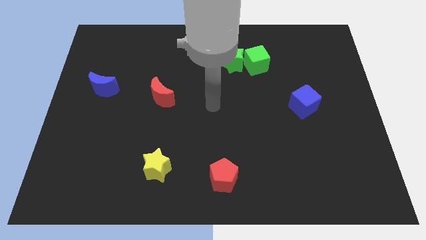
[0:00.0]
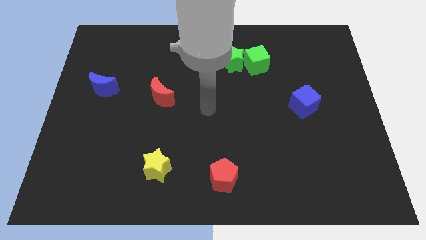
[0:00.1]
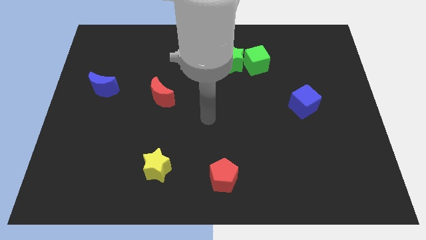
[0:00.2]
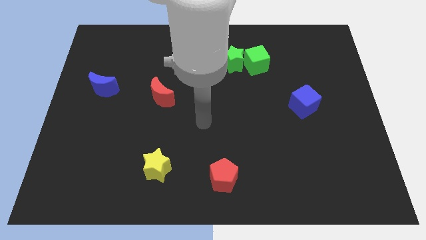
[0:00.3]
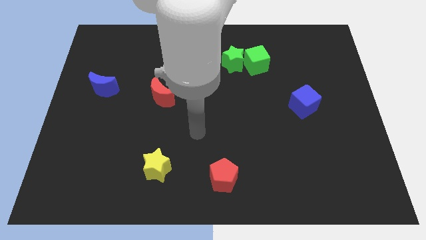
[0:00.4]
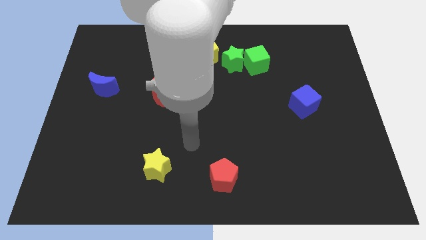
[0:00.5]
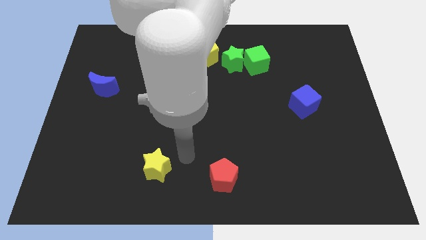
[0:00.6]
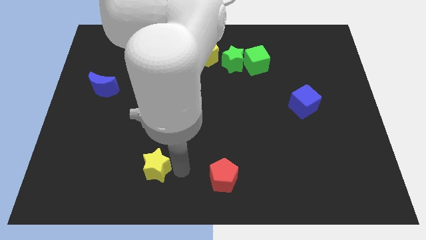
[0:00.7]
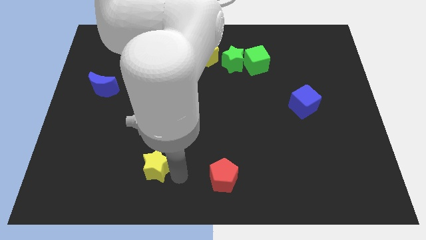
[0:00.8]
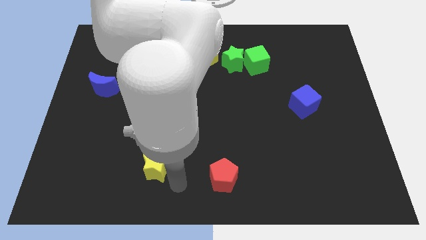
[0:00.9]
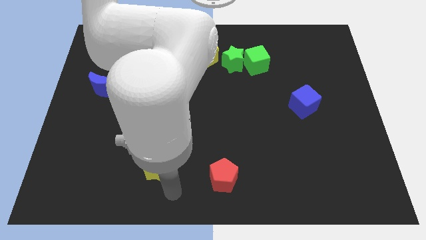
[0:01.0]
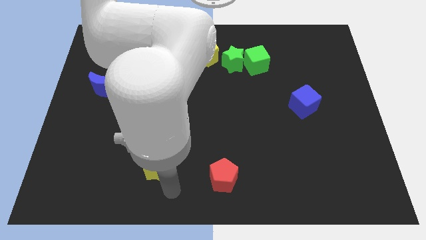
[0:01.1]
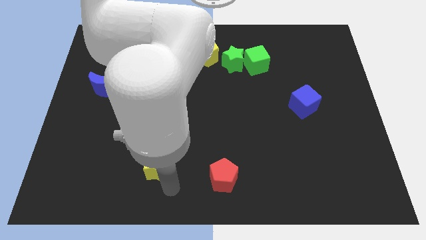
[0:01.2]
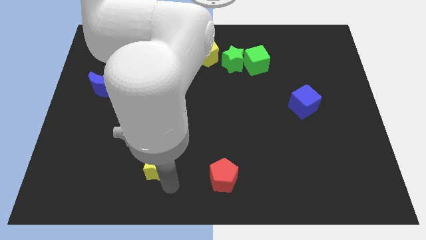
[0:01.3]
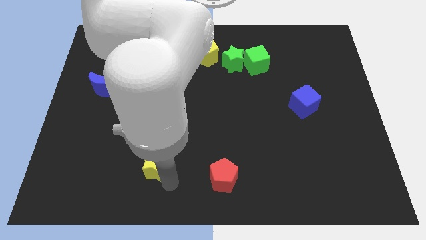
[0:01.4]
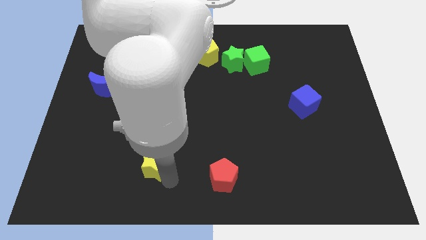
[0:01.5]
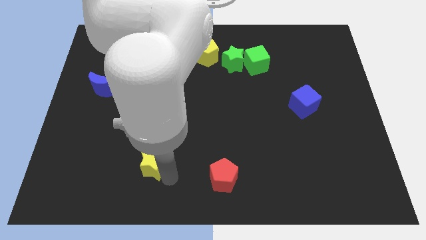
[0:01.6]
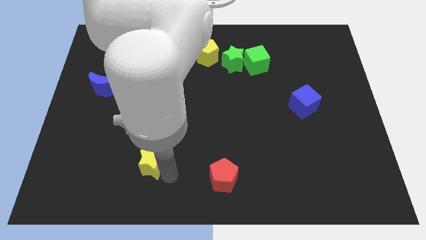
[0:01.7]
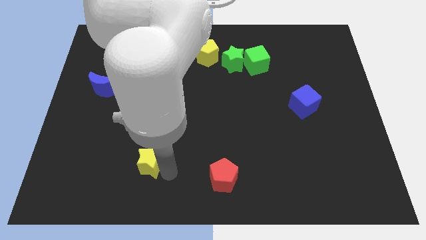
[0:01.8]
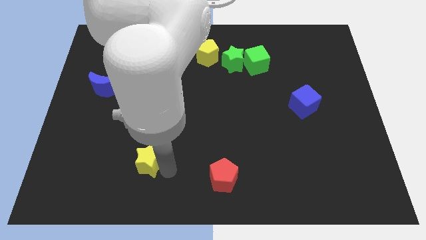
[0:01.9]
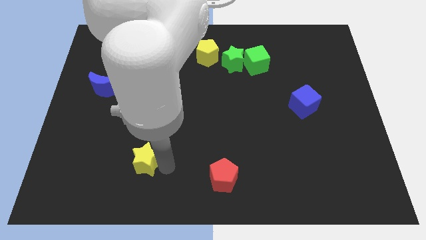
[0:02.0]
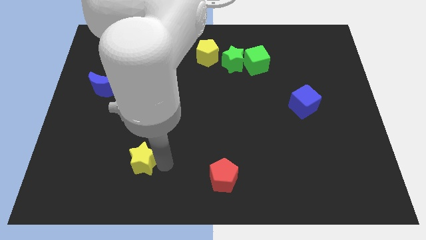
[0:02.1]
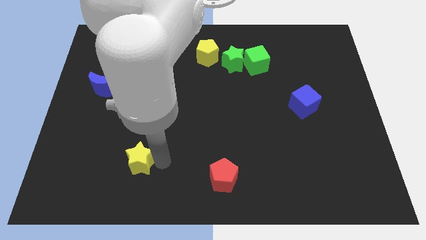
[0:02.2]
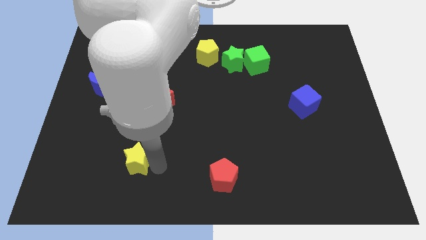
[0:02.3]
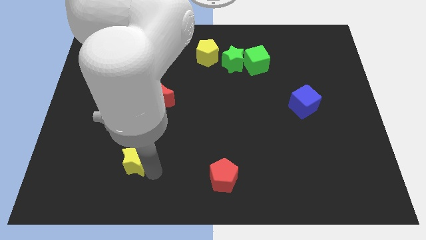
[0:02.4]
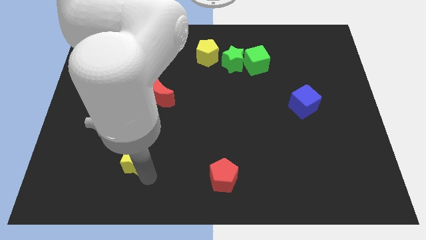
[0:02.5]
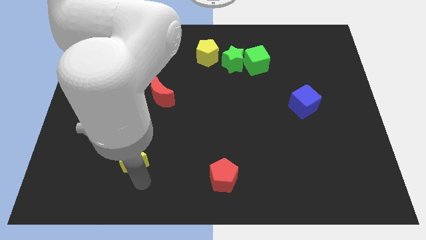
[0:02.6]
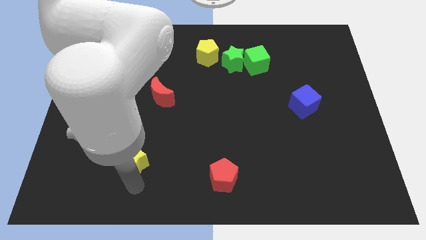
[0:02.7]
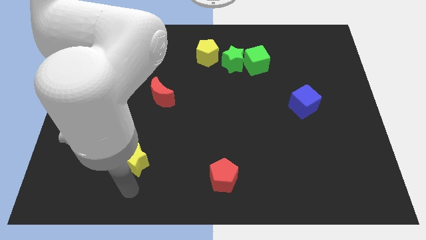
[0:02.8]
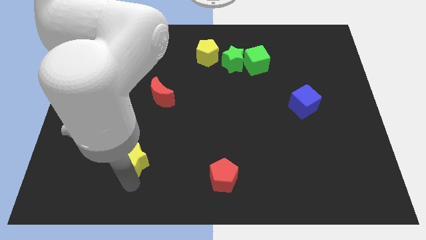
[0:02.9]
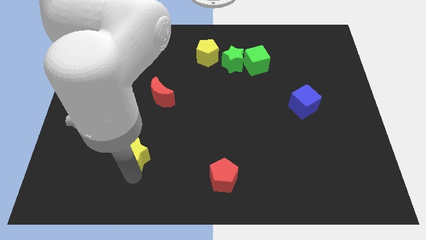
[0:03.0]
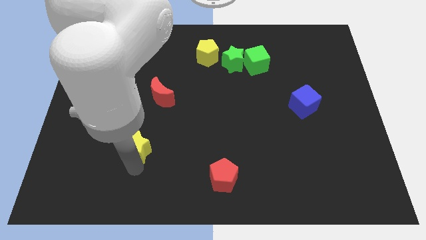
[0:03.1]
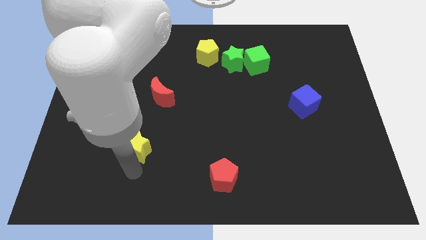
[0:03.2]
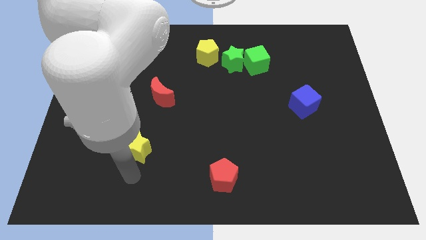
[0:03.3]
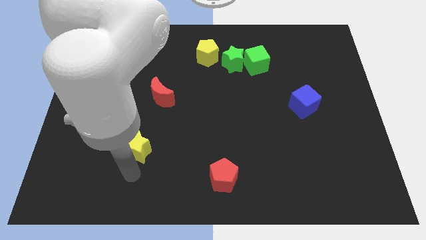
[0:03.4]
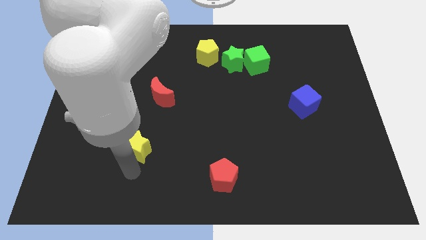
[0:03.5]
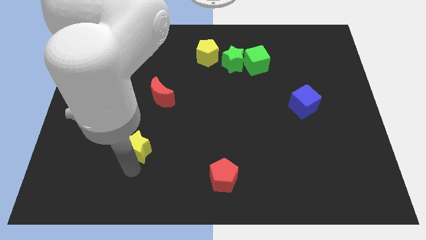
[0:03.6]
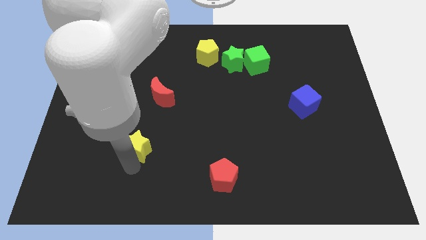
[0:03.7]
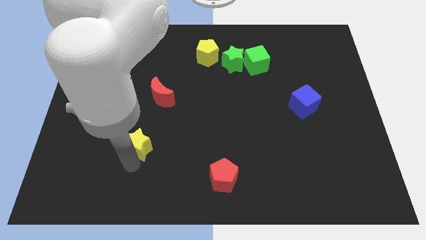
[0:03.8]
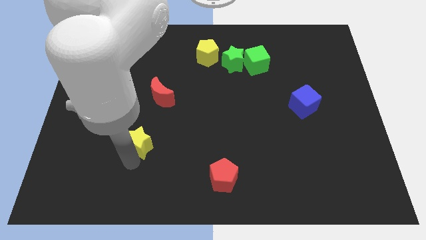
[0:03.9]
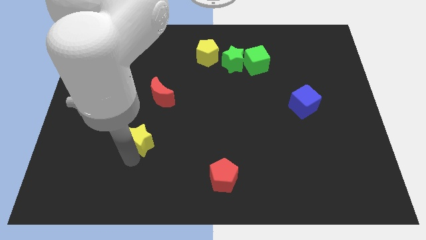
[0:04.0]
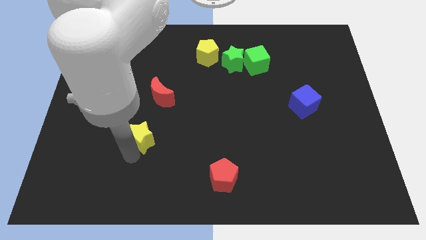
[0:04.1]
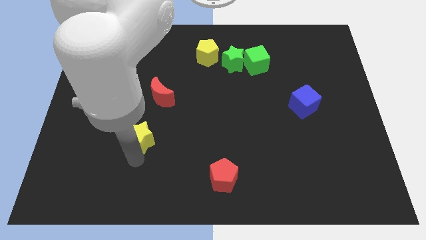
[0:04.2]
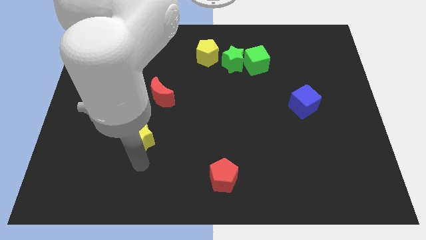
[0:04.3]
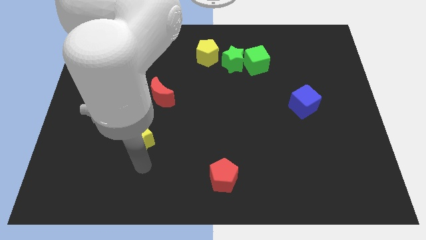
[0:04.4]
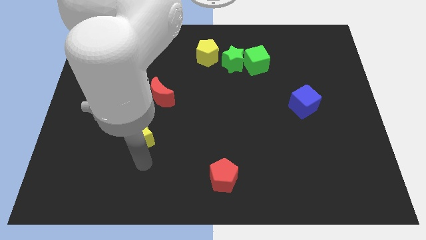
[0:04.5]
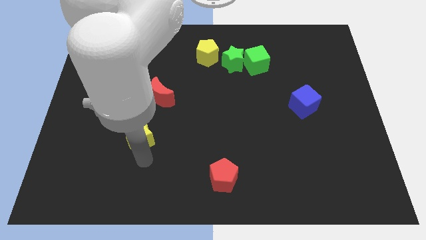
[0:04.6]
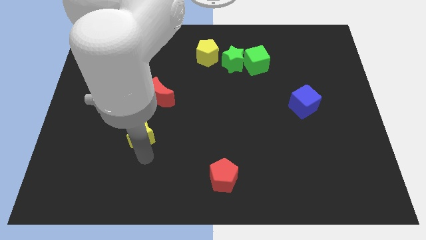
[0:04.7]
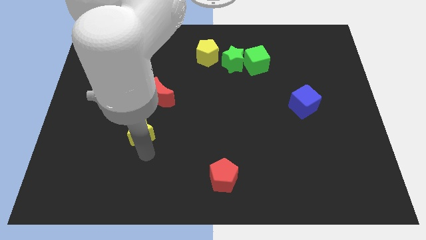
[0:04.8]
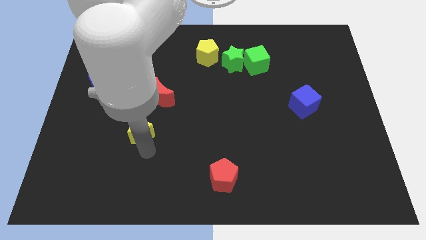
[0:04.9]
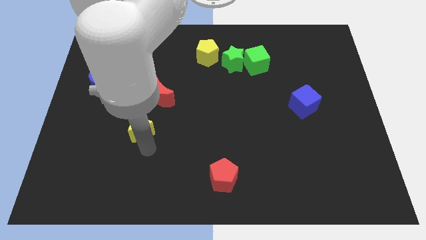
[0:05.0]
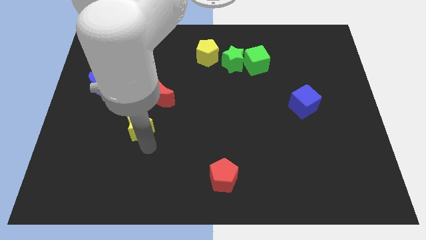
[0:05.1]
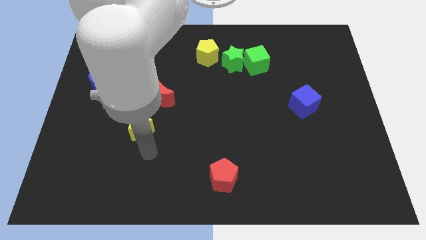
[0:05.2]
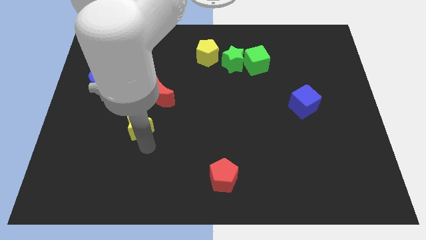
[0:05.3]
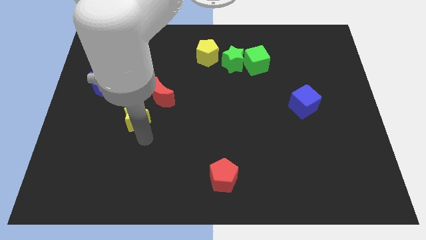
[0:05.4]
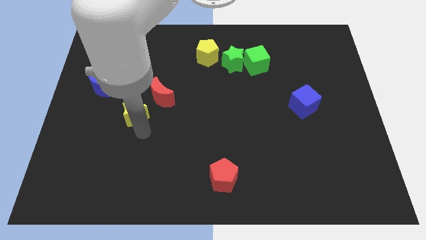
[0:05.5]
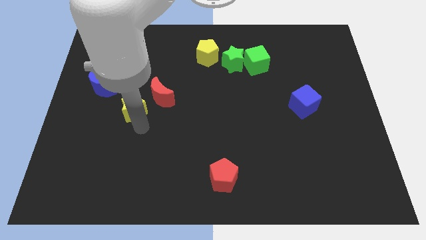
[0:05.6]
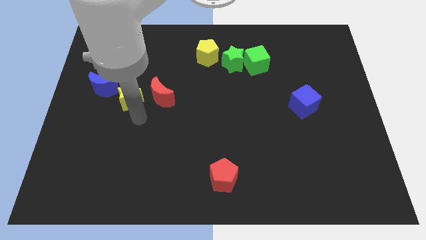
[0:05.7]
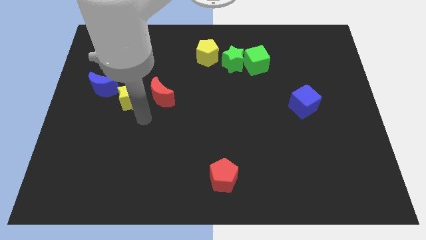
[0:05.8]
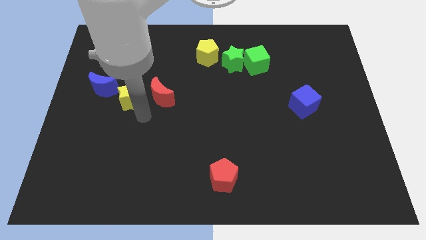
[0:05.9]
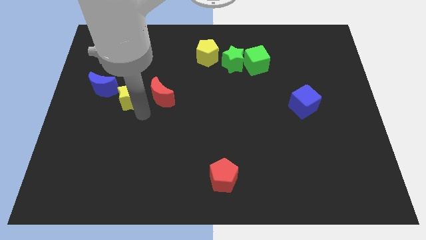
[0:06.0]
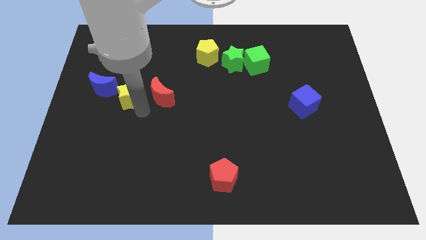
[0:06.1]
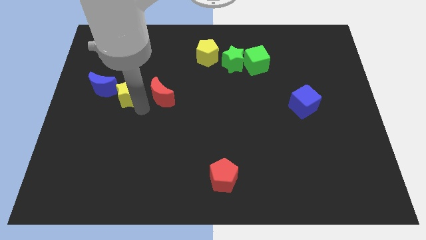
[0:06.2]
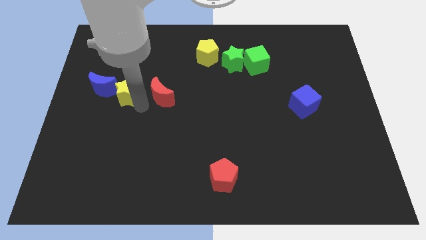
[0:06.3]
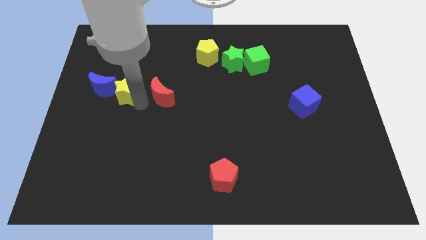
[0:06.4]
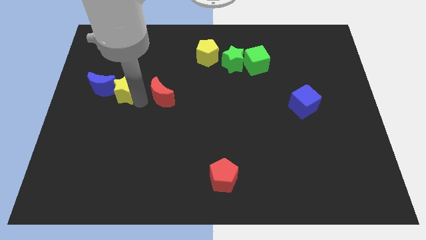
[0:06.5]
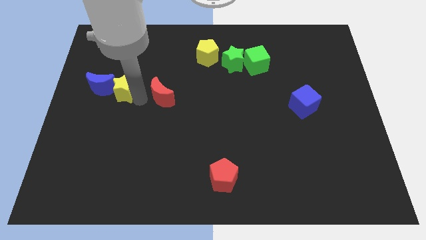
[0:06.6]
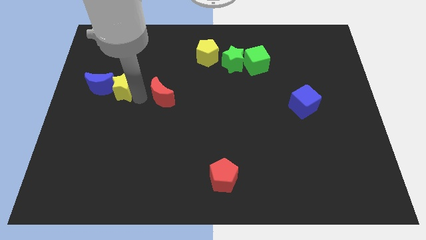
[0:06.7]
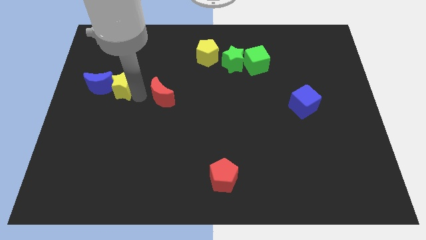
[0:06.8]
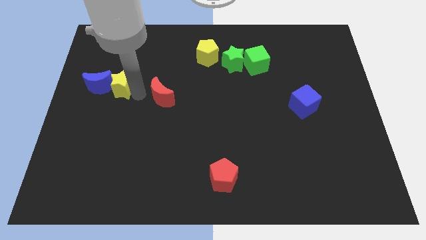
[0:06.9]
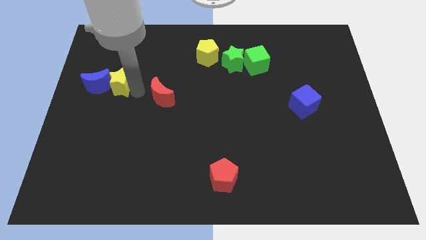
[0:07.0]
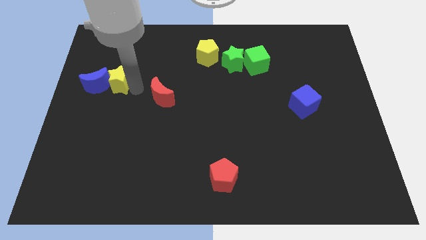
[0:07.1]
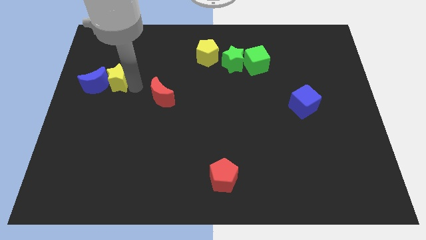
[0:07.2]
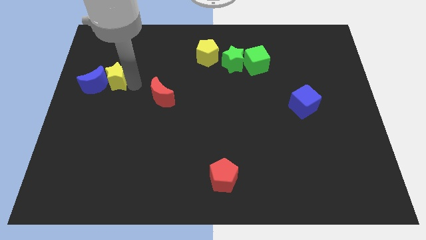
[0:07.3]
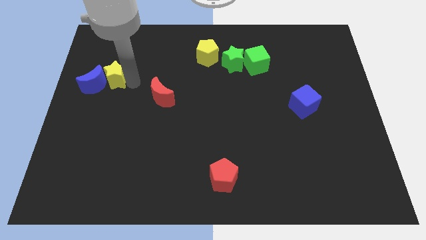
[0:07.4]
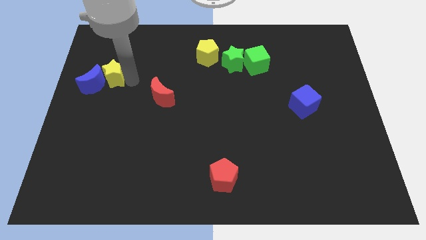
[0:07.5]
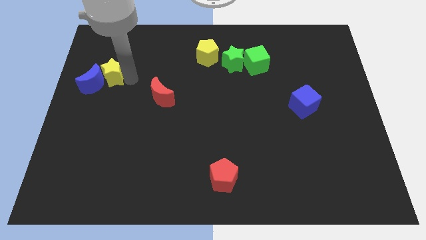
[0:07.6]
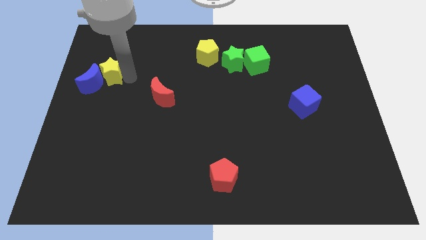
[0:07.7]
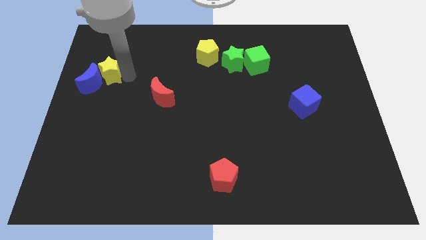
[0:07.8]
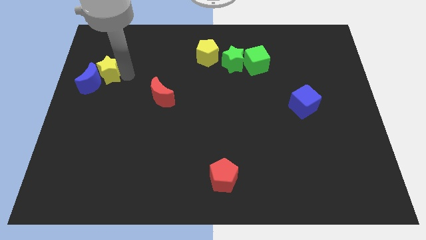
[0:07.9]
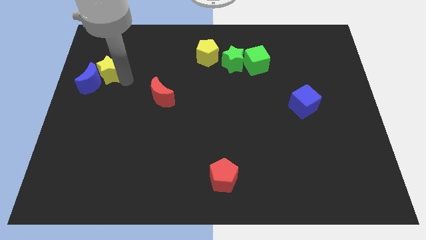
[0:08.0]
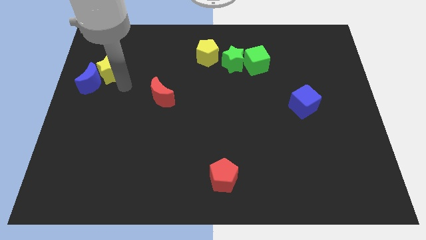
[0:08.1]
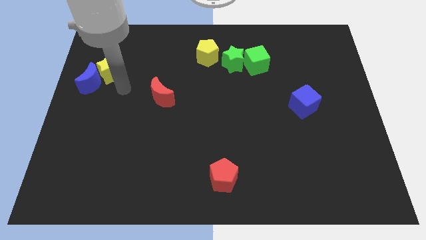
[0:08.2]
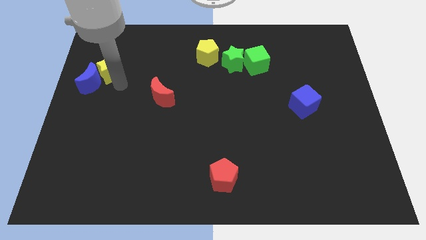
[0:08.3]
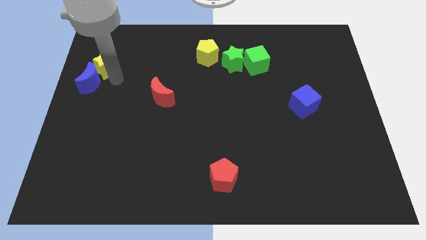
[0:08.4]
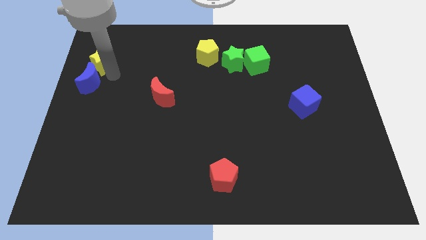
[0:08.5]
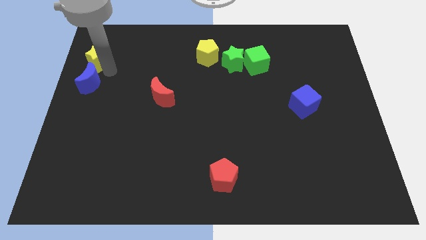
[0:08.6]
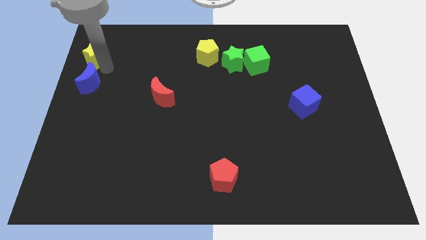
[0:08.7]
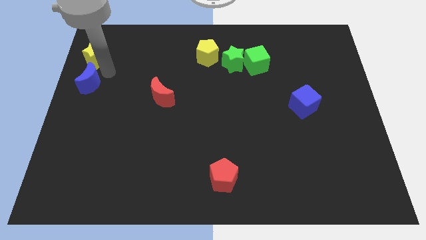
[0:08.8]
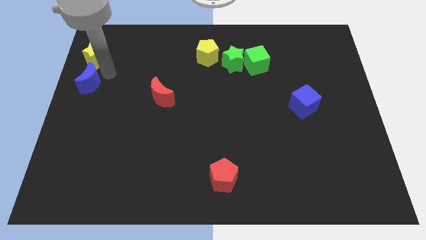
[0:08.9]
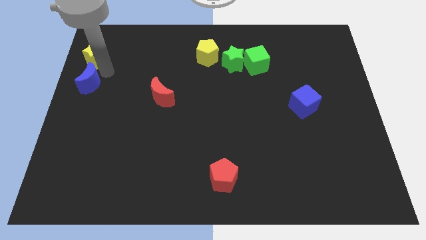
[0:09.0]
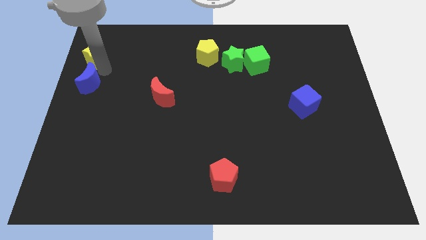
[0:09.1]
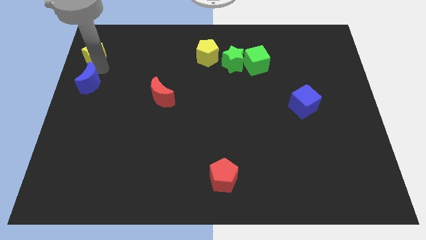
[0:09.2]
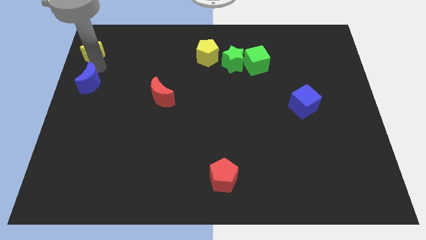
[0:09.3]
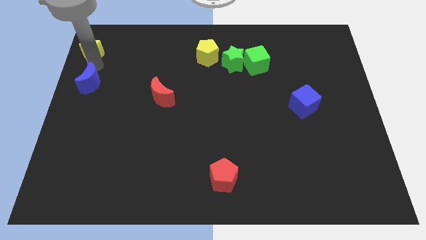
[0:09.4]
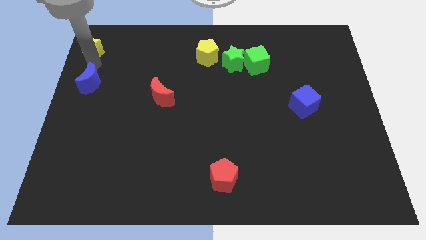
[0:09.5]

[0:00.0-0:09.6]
slide the yellow star to the top left of the board
